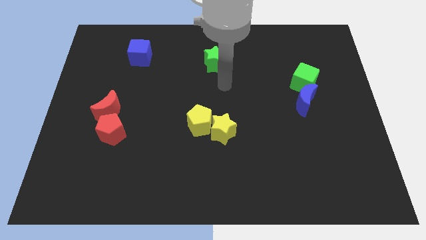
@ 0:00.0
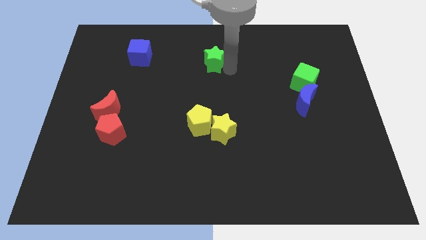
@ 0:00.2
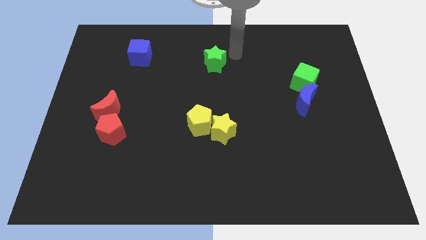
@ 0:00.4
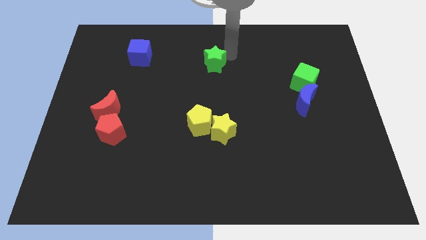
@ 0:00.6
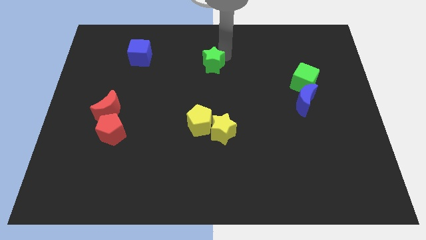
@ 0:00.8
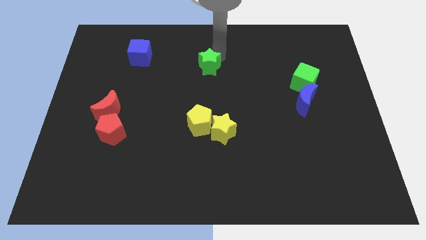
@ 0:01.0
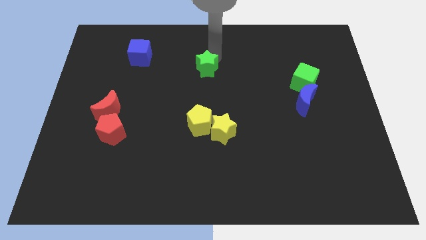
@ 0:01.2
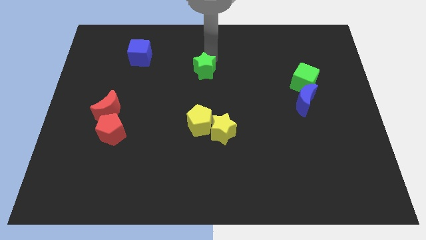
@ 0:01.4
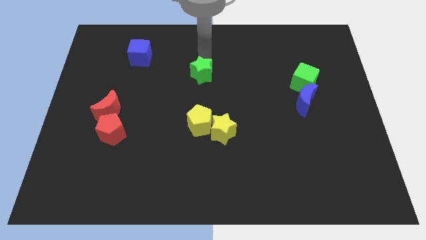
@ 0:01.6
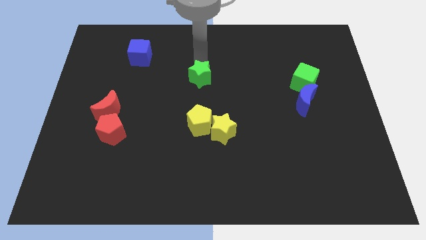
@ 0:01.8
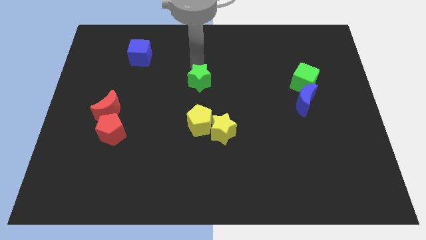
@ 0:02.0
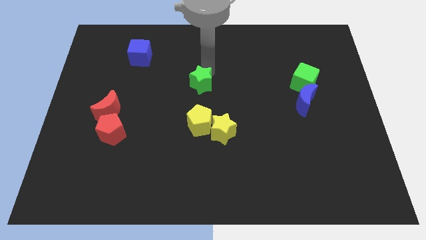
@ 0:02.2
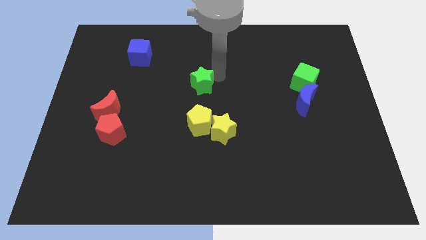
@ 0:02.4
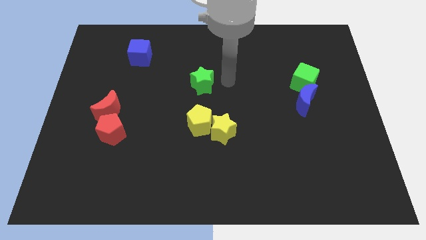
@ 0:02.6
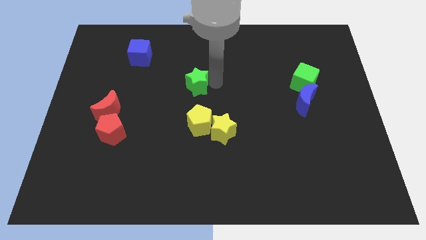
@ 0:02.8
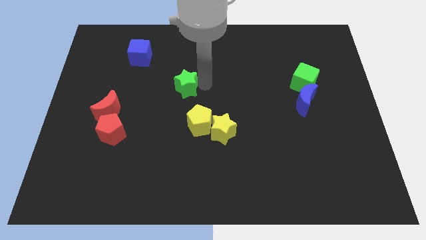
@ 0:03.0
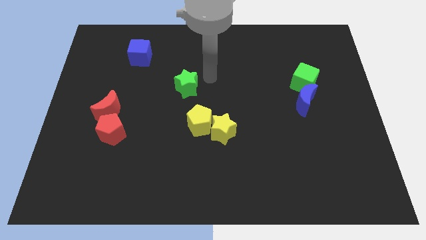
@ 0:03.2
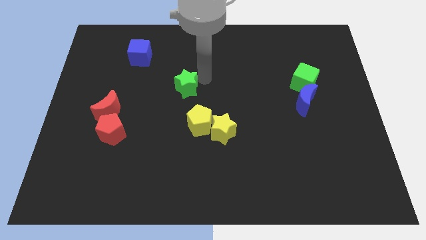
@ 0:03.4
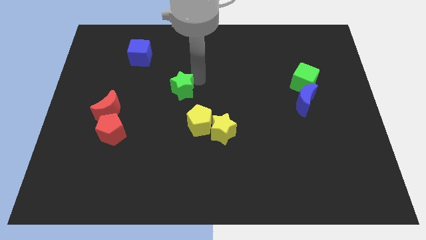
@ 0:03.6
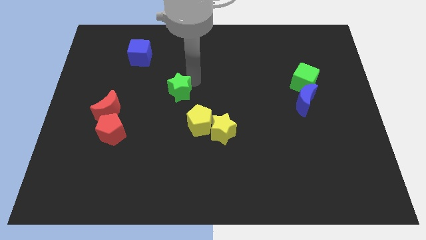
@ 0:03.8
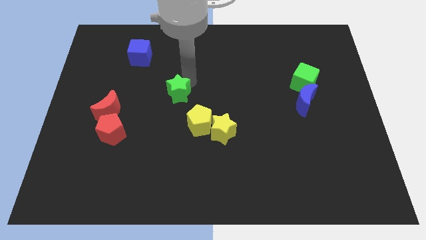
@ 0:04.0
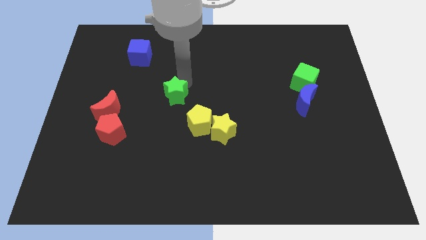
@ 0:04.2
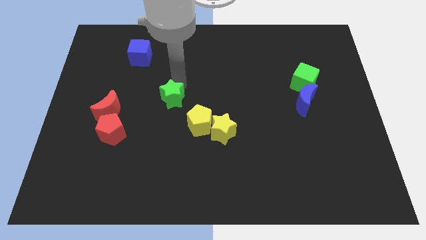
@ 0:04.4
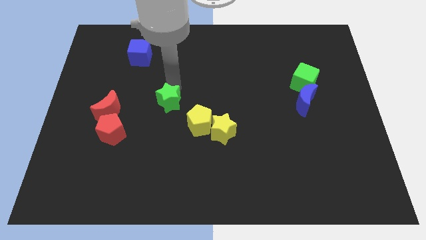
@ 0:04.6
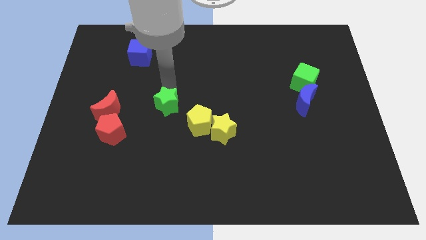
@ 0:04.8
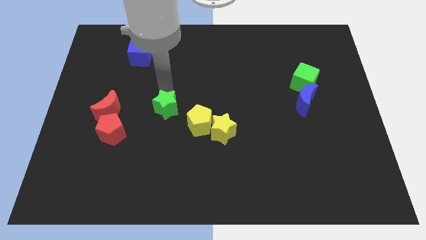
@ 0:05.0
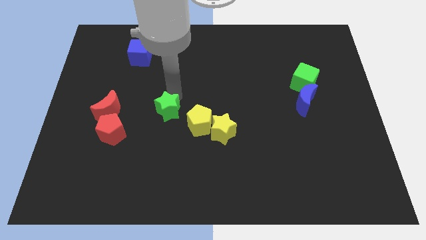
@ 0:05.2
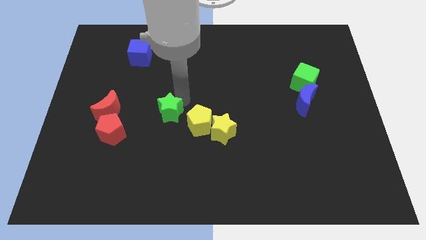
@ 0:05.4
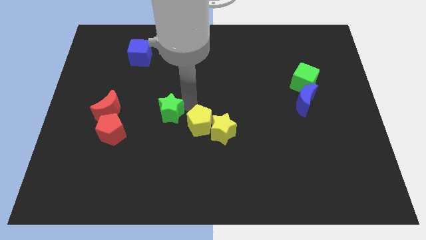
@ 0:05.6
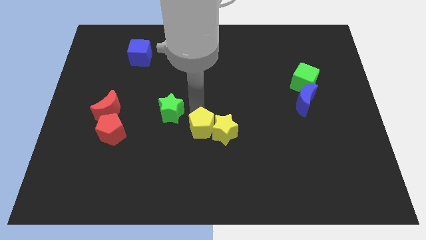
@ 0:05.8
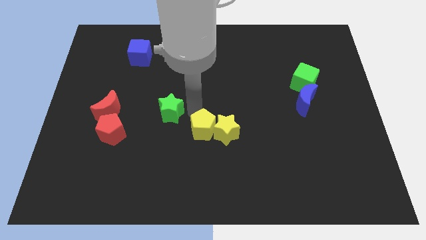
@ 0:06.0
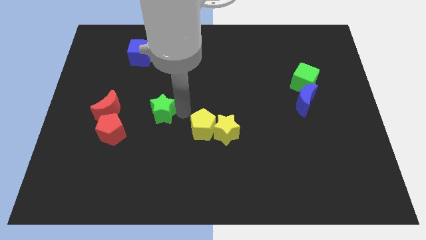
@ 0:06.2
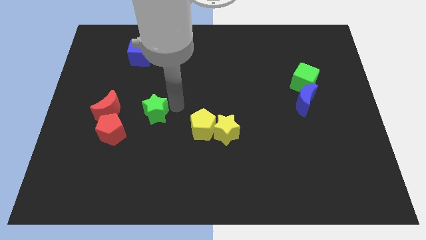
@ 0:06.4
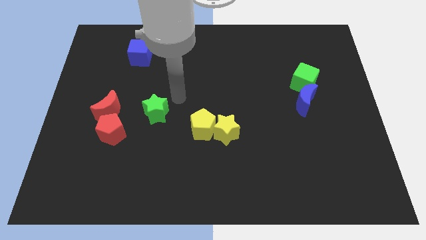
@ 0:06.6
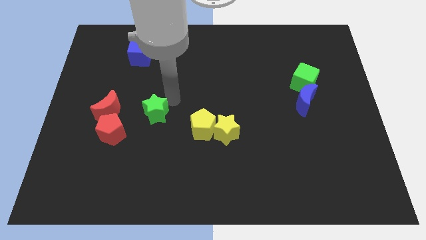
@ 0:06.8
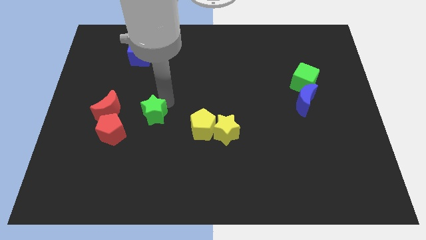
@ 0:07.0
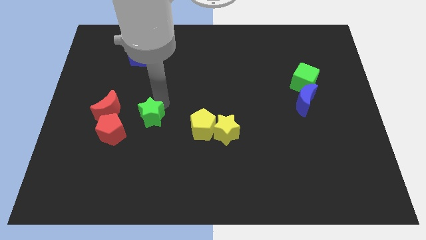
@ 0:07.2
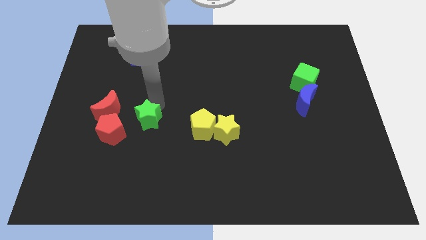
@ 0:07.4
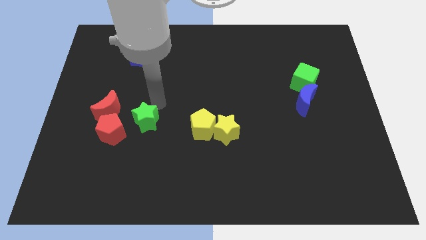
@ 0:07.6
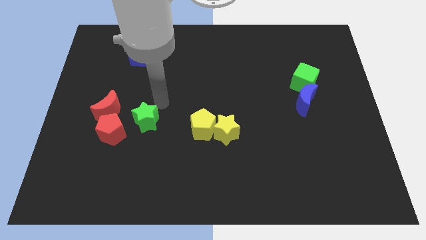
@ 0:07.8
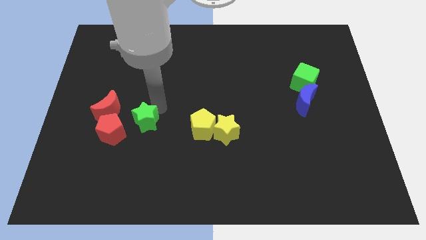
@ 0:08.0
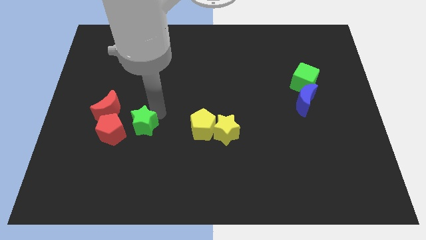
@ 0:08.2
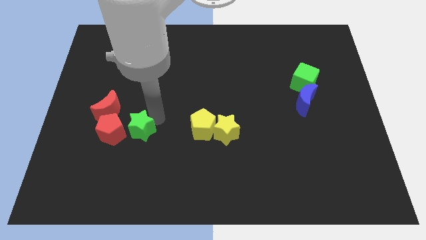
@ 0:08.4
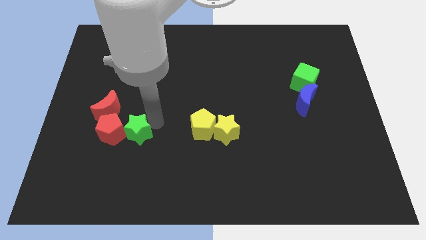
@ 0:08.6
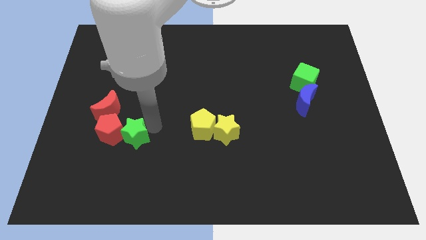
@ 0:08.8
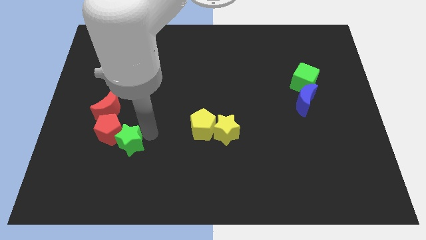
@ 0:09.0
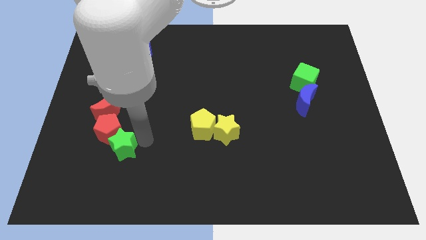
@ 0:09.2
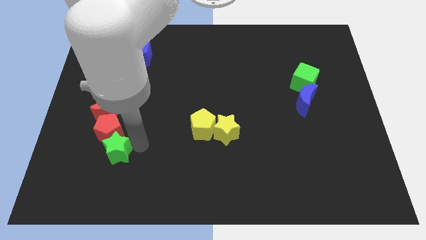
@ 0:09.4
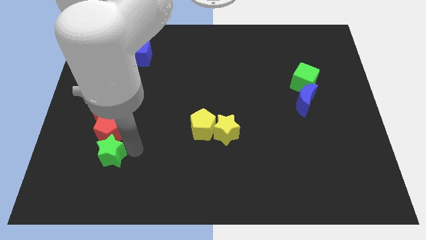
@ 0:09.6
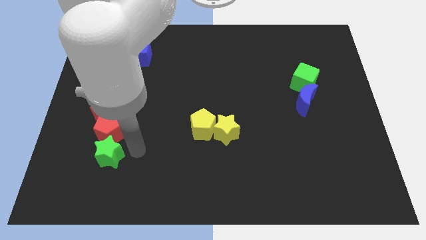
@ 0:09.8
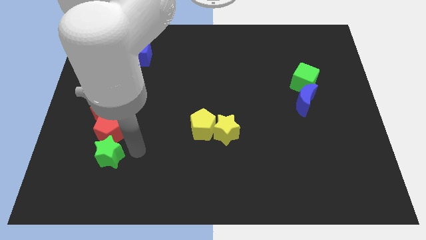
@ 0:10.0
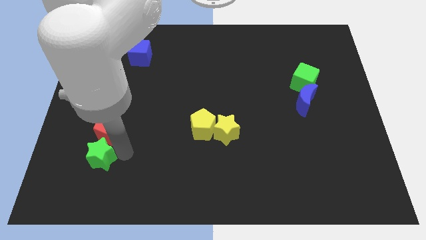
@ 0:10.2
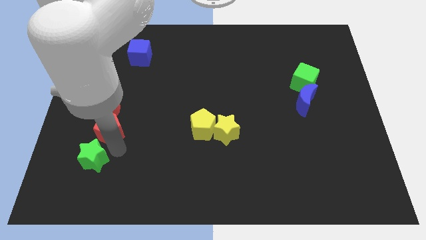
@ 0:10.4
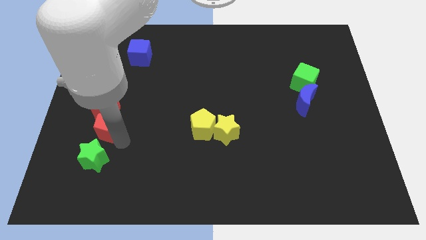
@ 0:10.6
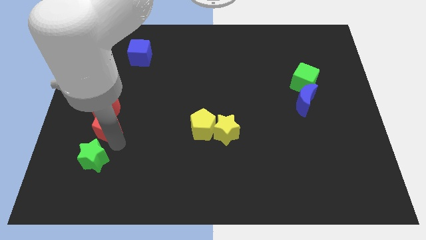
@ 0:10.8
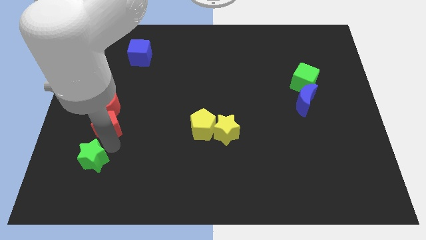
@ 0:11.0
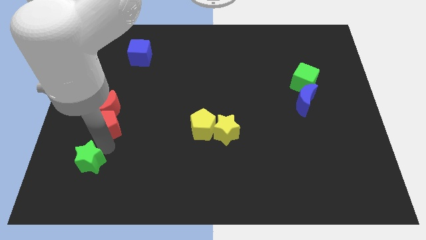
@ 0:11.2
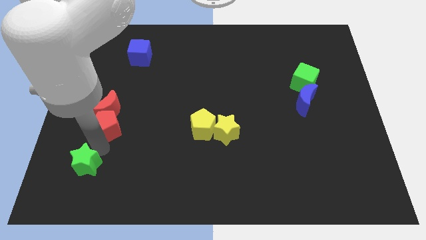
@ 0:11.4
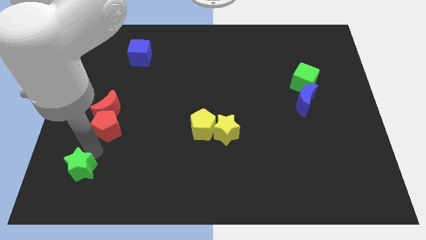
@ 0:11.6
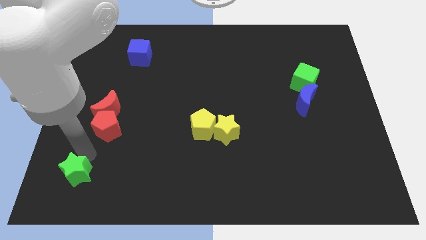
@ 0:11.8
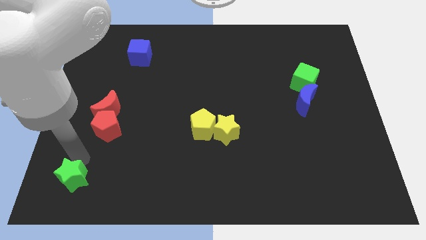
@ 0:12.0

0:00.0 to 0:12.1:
slide the green star to the bottom left corner

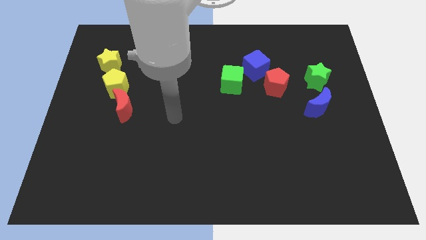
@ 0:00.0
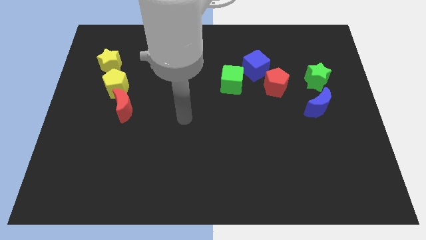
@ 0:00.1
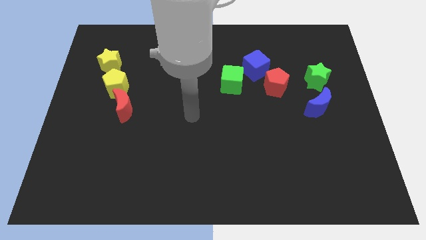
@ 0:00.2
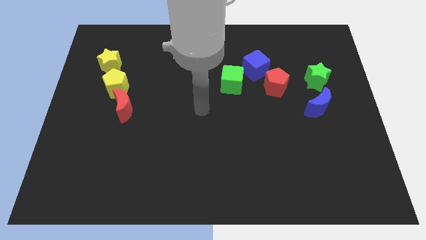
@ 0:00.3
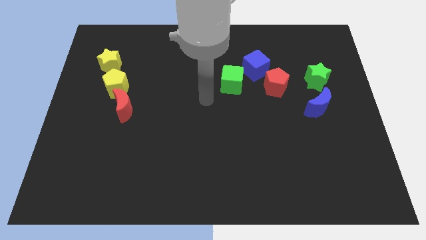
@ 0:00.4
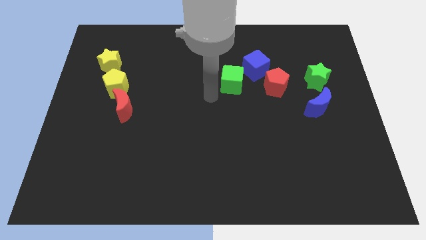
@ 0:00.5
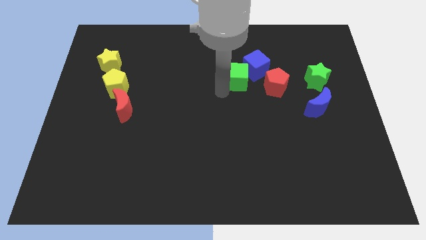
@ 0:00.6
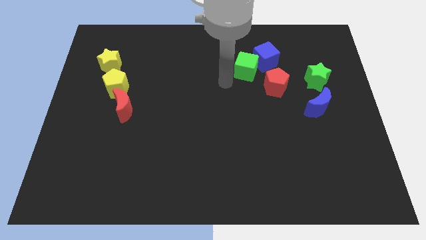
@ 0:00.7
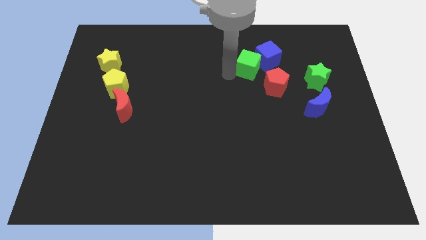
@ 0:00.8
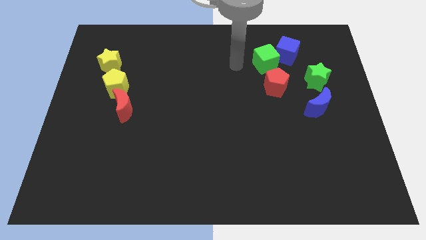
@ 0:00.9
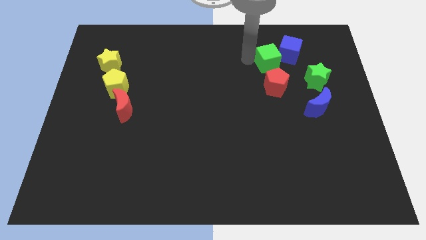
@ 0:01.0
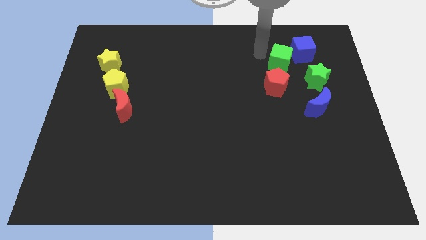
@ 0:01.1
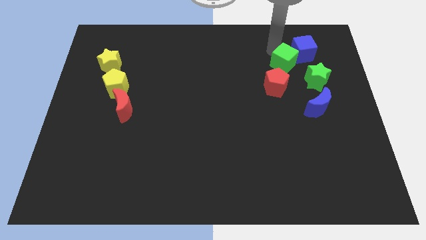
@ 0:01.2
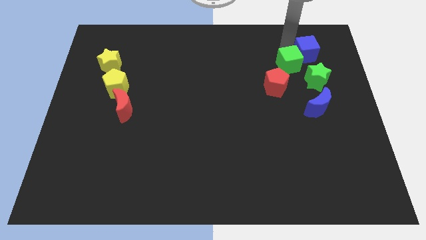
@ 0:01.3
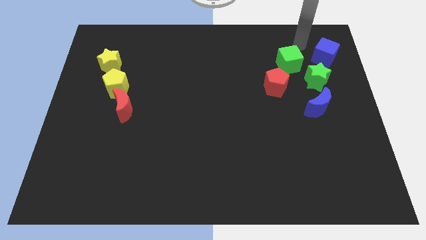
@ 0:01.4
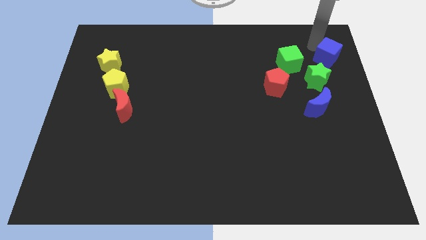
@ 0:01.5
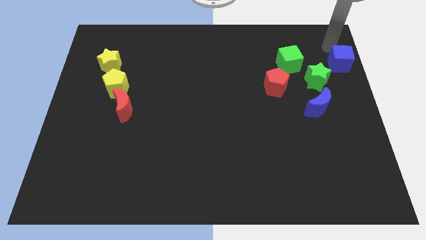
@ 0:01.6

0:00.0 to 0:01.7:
slide the blue cube to the center right
